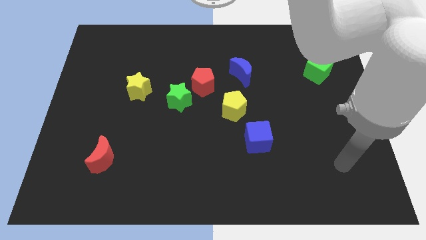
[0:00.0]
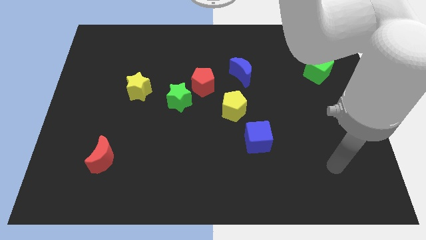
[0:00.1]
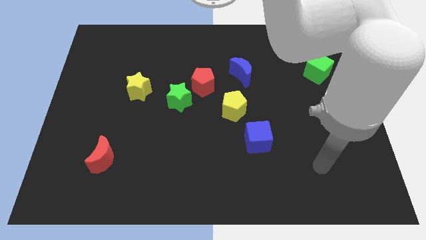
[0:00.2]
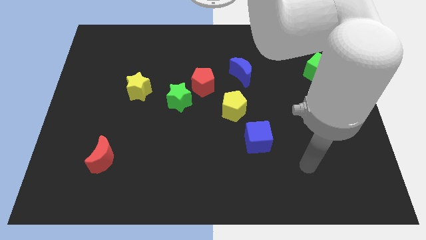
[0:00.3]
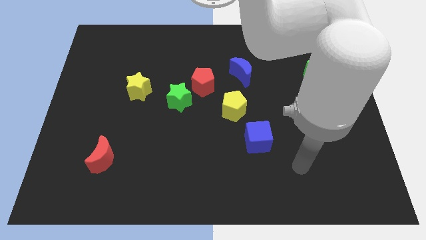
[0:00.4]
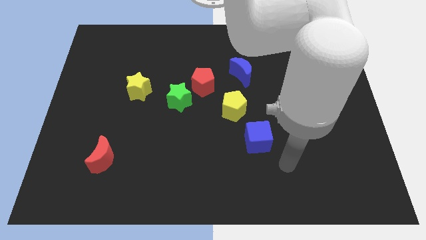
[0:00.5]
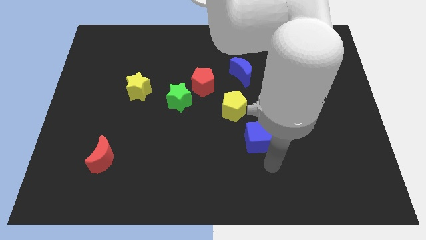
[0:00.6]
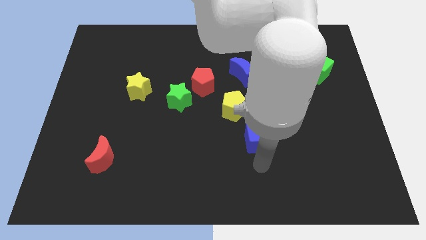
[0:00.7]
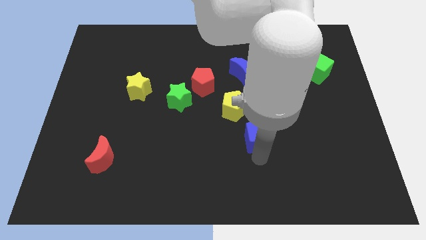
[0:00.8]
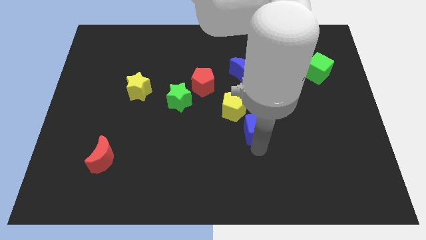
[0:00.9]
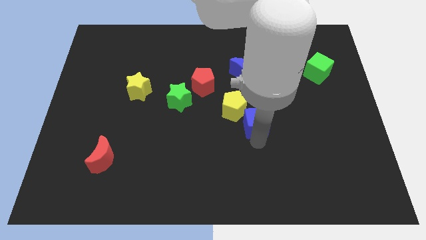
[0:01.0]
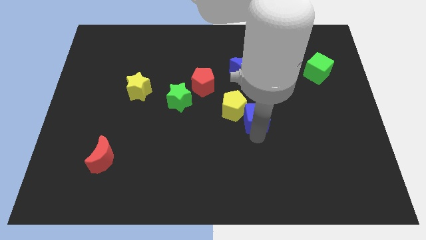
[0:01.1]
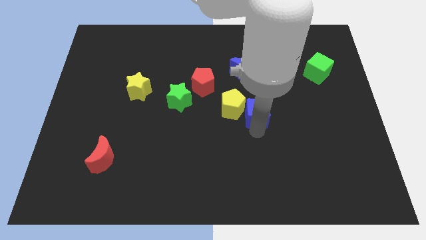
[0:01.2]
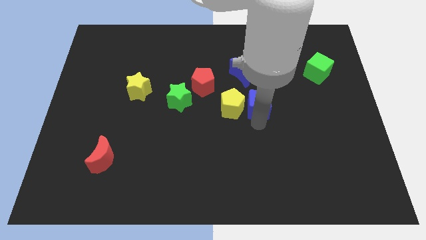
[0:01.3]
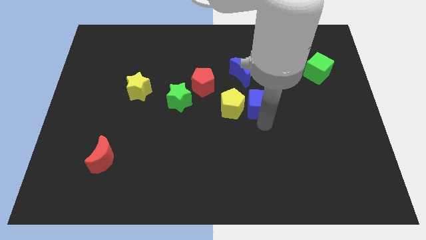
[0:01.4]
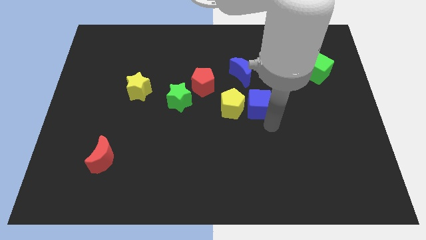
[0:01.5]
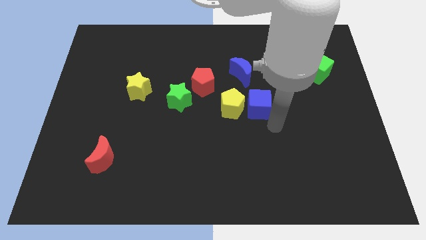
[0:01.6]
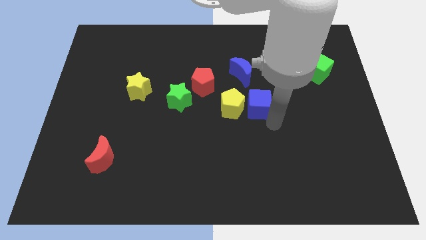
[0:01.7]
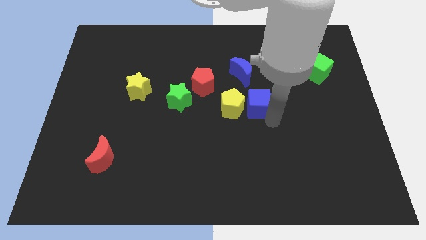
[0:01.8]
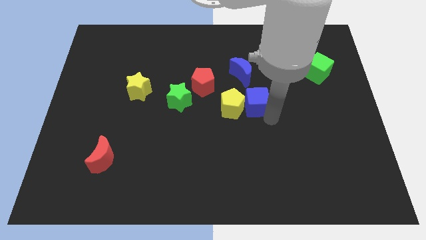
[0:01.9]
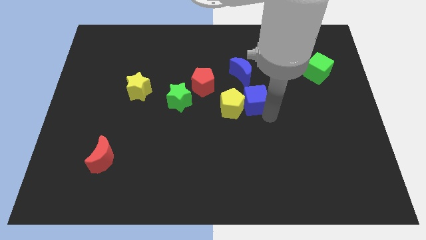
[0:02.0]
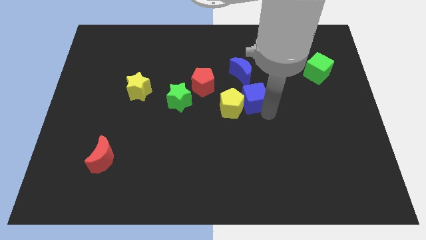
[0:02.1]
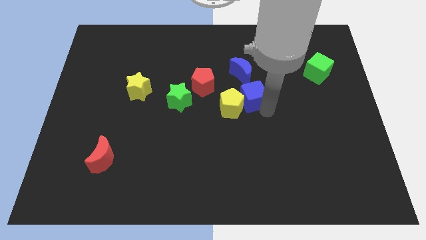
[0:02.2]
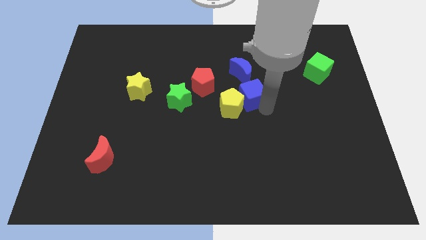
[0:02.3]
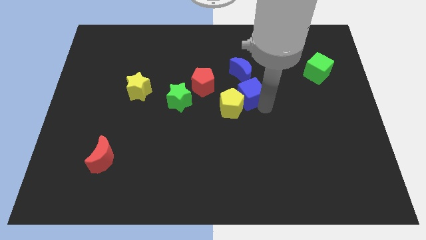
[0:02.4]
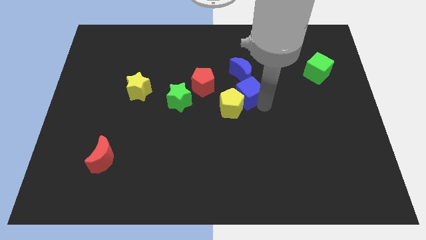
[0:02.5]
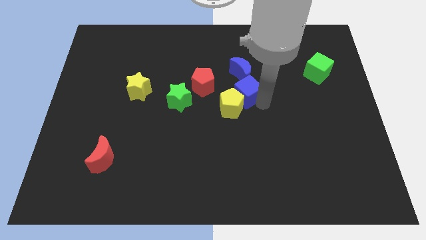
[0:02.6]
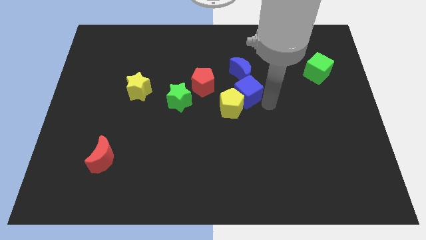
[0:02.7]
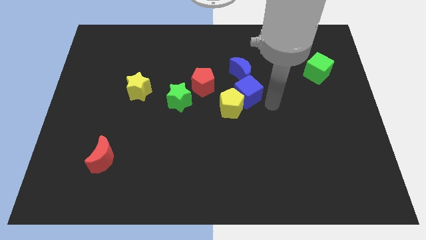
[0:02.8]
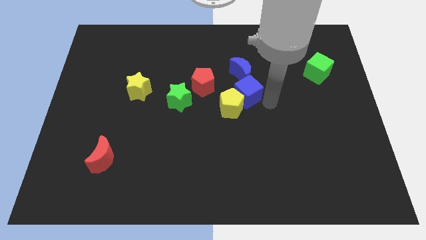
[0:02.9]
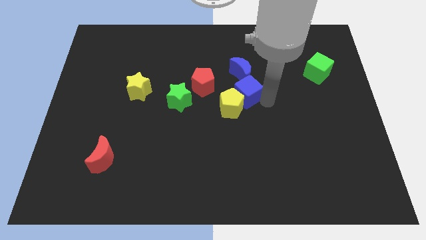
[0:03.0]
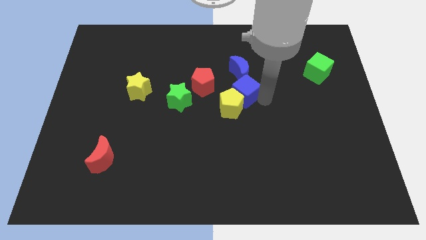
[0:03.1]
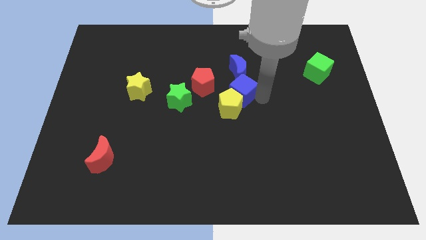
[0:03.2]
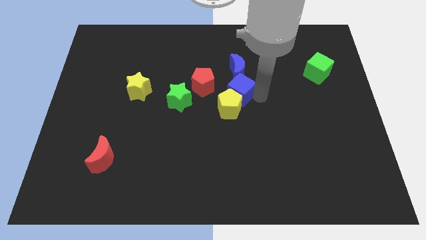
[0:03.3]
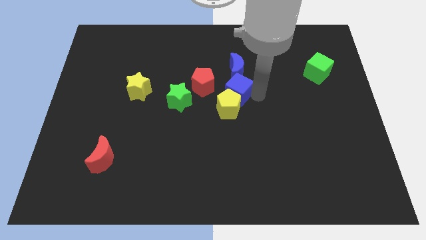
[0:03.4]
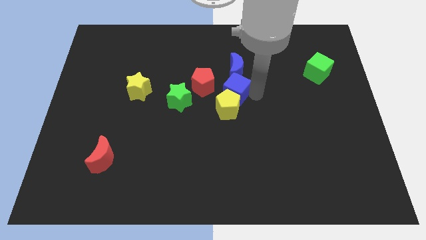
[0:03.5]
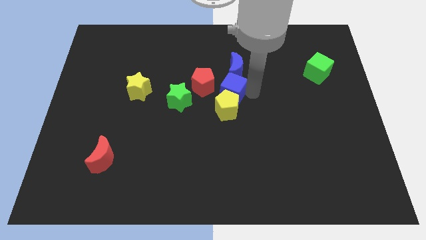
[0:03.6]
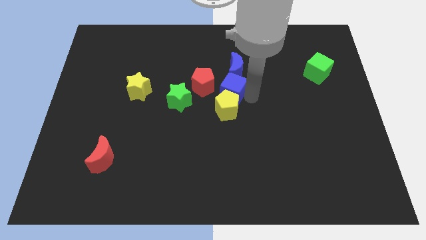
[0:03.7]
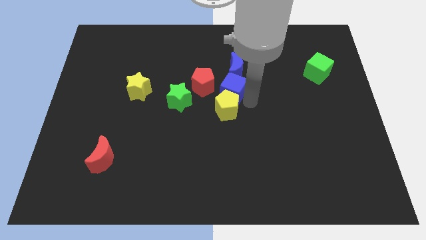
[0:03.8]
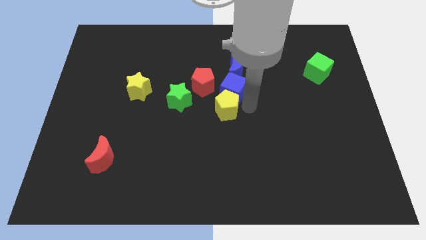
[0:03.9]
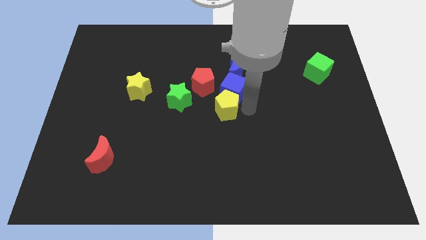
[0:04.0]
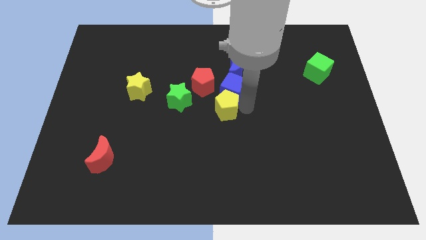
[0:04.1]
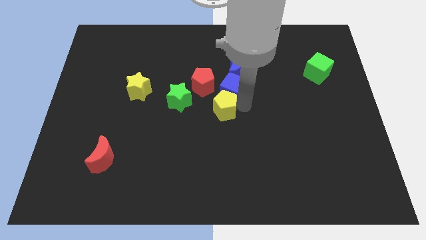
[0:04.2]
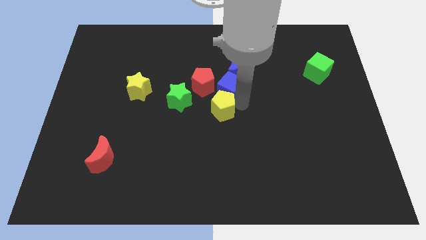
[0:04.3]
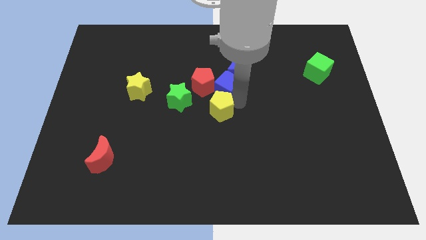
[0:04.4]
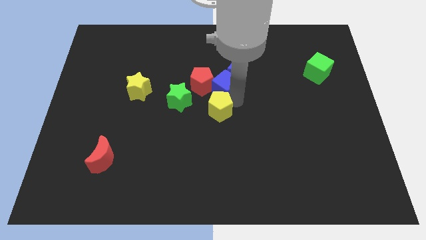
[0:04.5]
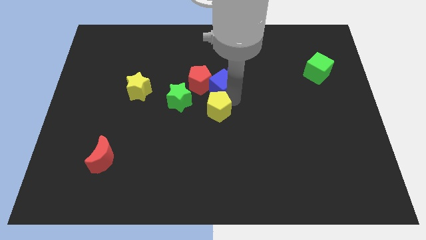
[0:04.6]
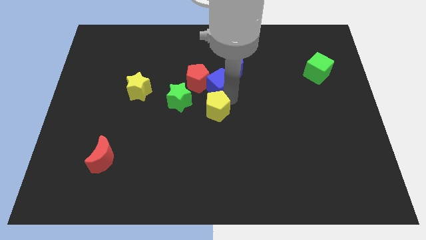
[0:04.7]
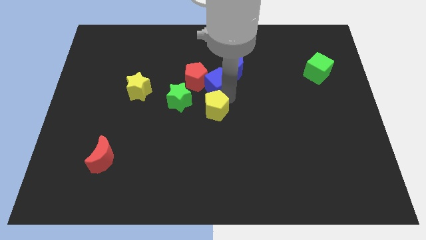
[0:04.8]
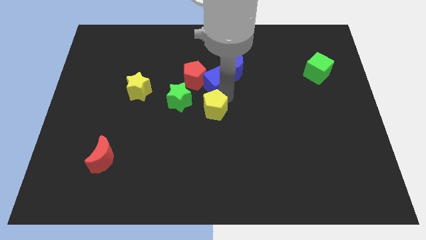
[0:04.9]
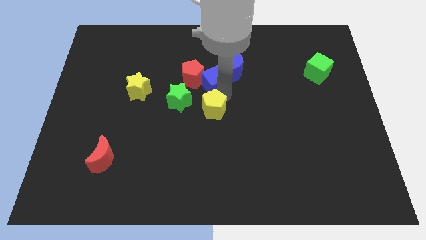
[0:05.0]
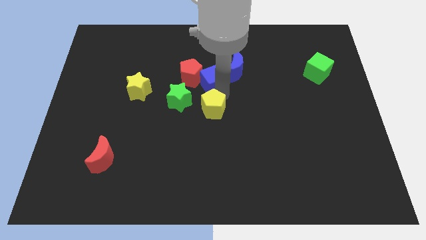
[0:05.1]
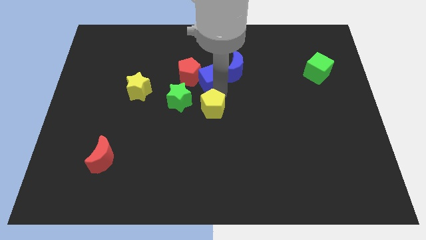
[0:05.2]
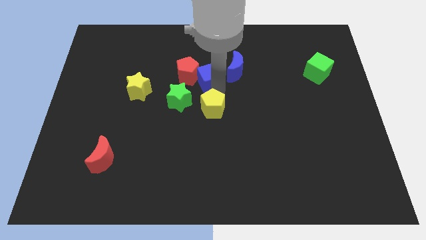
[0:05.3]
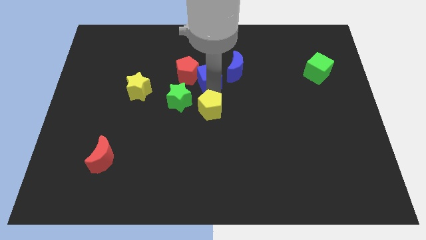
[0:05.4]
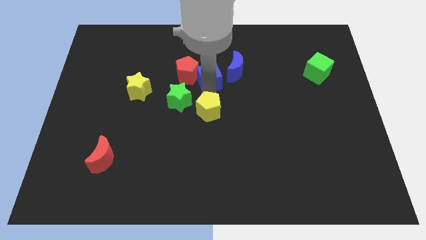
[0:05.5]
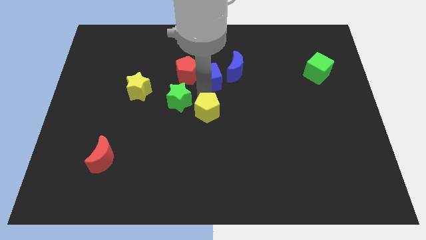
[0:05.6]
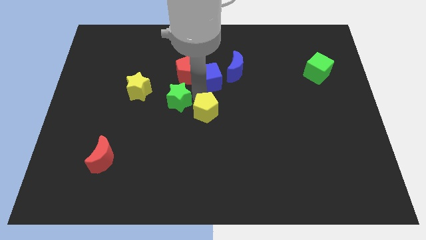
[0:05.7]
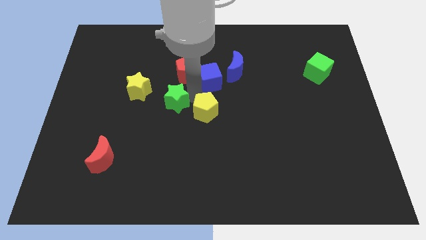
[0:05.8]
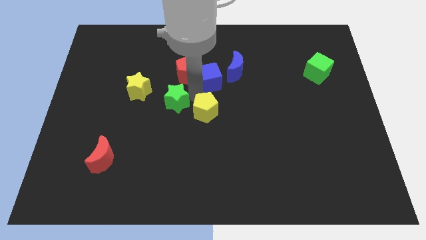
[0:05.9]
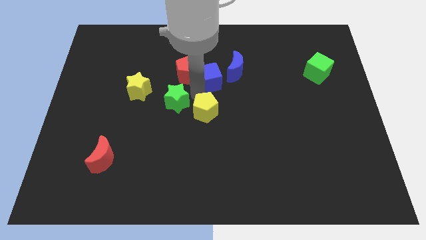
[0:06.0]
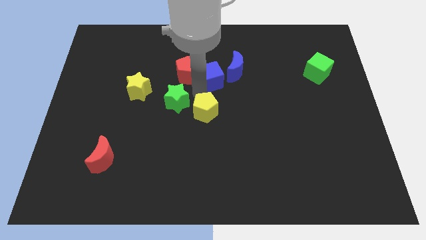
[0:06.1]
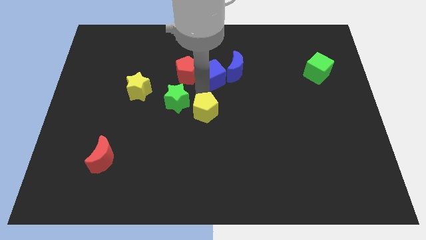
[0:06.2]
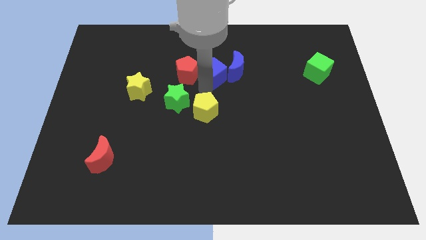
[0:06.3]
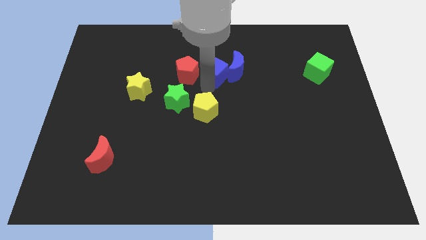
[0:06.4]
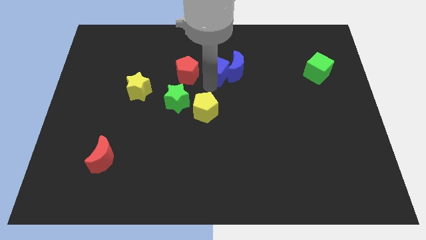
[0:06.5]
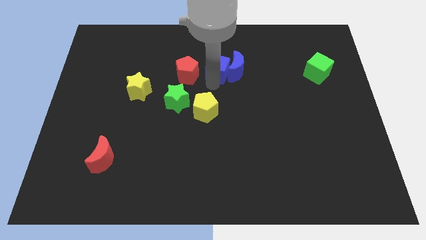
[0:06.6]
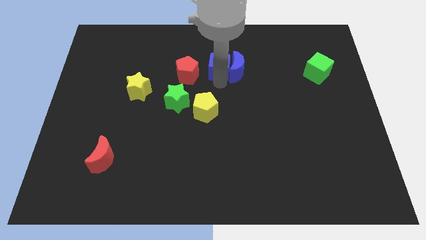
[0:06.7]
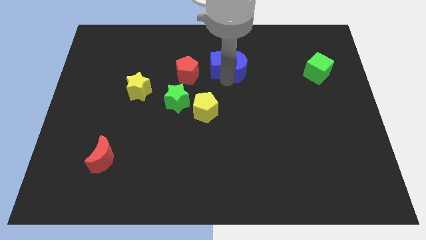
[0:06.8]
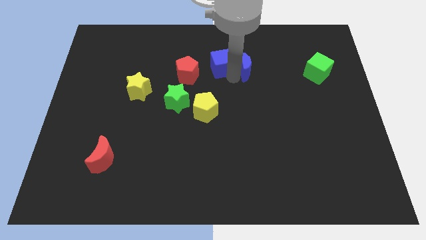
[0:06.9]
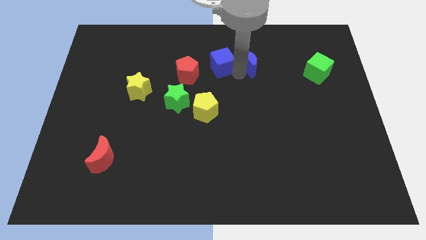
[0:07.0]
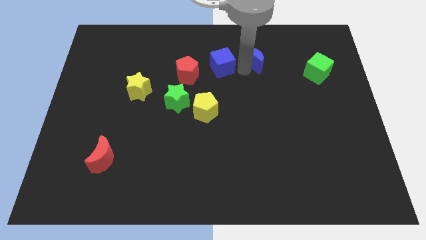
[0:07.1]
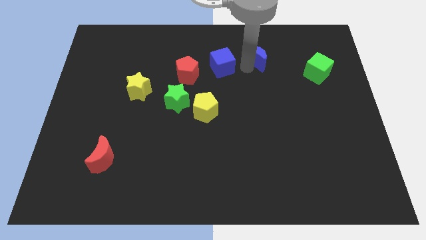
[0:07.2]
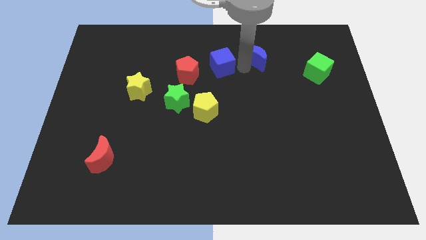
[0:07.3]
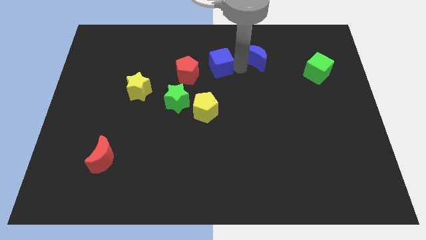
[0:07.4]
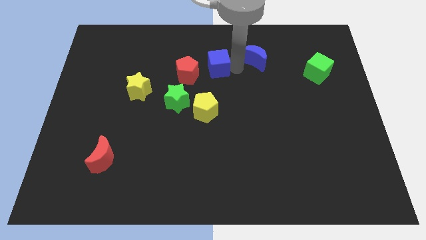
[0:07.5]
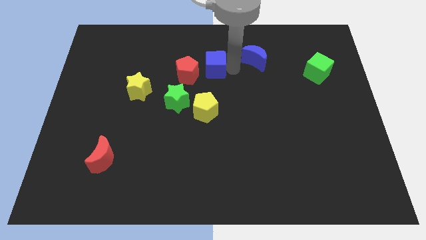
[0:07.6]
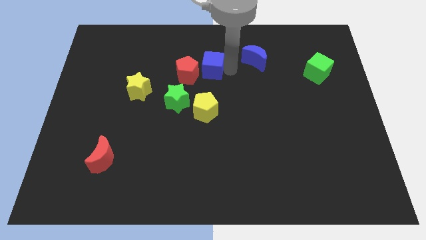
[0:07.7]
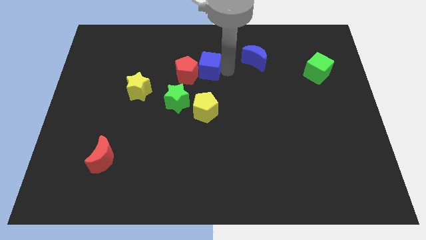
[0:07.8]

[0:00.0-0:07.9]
slide the blue cube up and left diagonally
